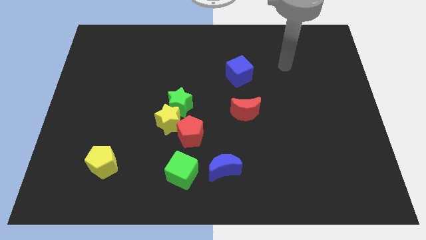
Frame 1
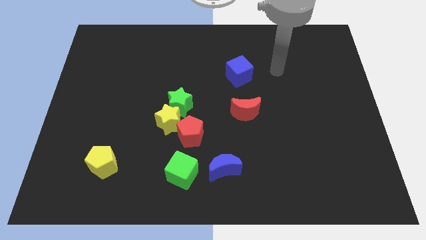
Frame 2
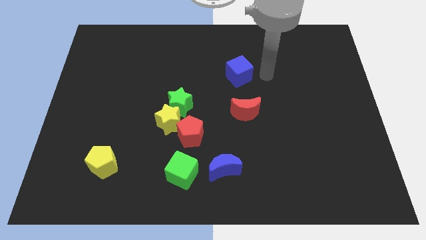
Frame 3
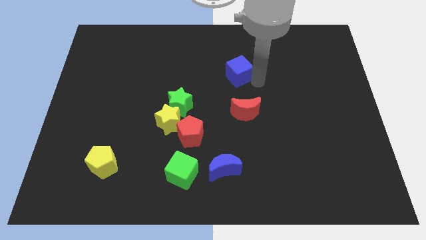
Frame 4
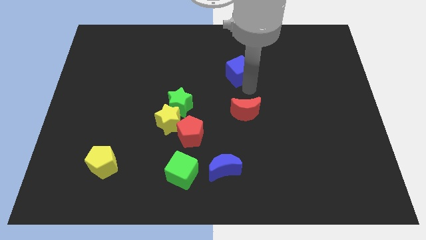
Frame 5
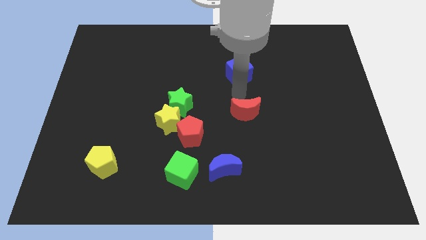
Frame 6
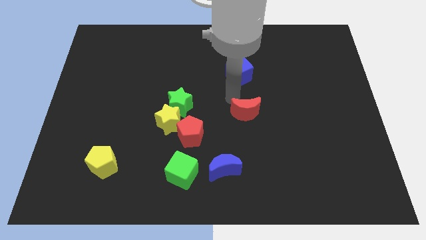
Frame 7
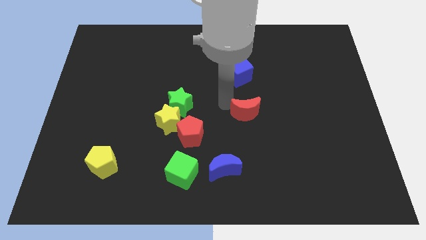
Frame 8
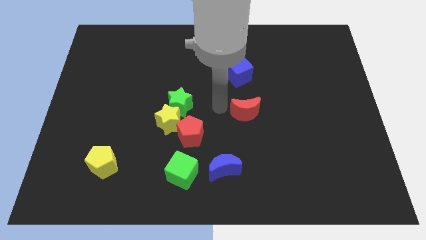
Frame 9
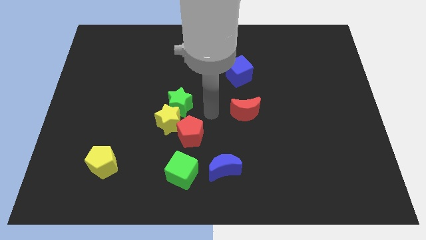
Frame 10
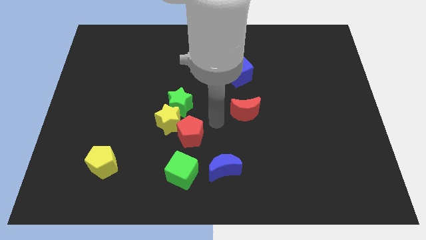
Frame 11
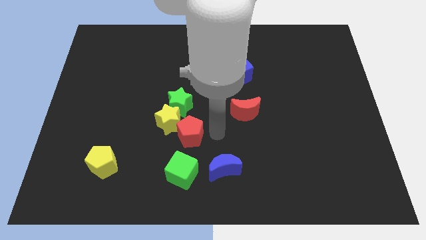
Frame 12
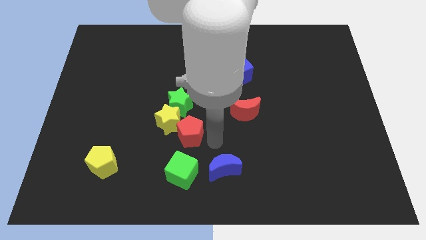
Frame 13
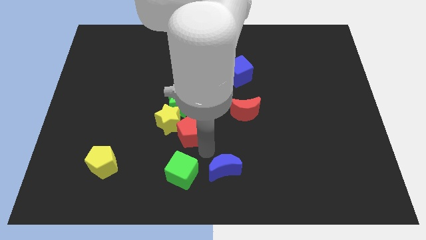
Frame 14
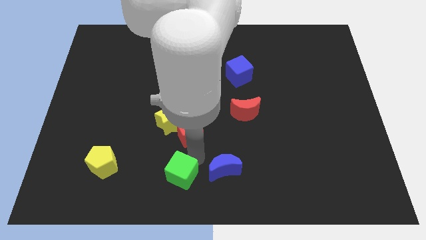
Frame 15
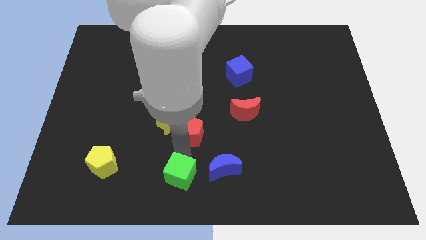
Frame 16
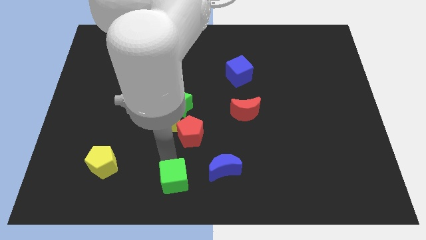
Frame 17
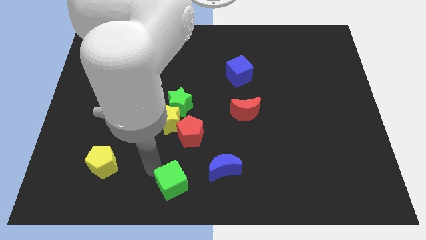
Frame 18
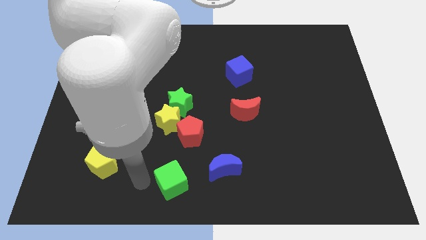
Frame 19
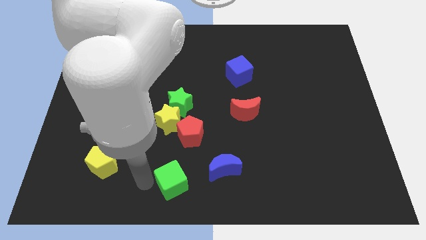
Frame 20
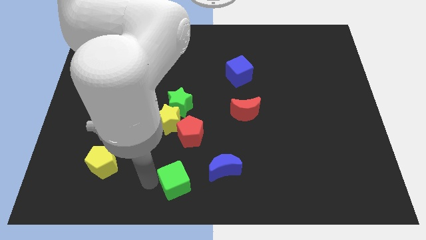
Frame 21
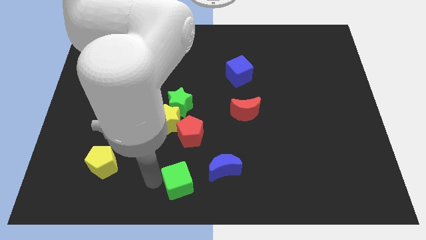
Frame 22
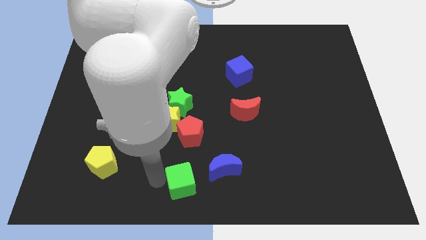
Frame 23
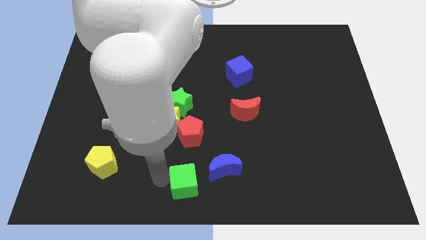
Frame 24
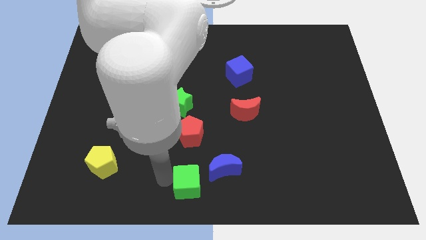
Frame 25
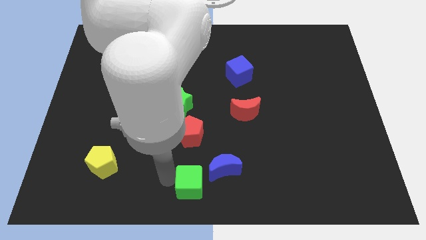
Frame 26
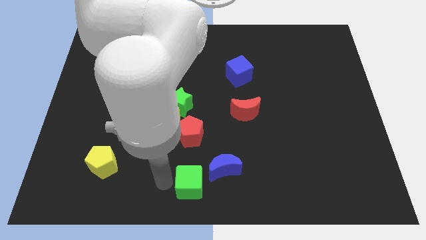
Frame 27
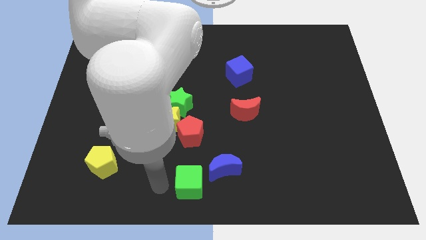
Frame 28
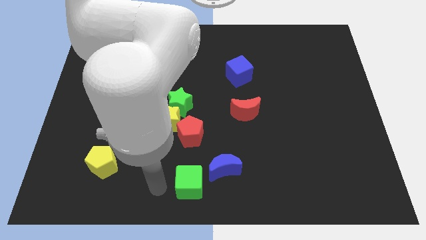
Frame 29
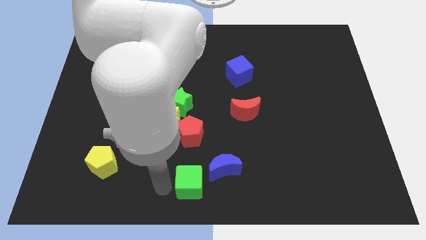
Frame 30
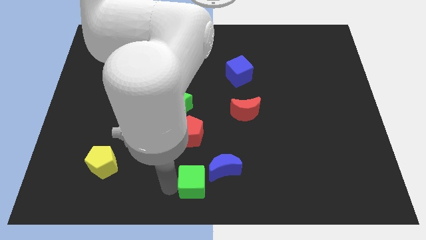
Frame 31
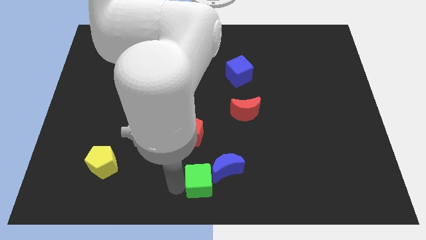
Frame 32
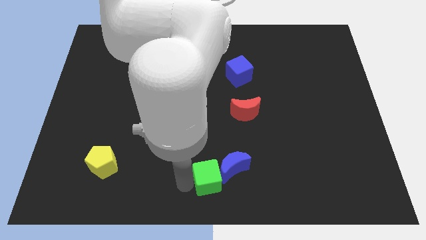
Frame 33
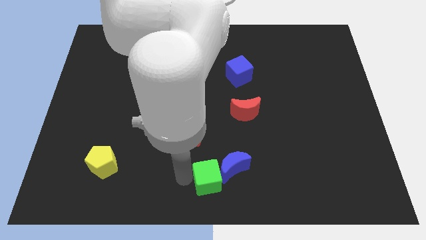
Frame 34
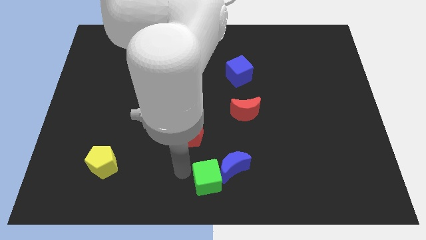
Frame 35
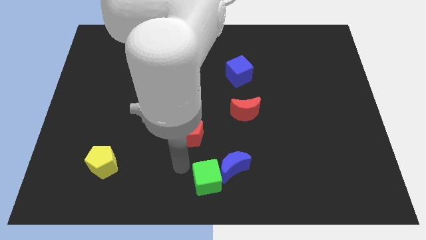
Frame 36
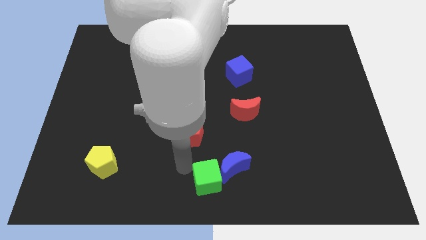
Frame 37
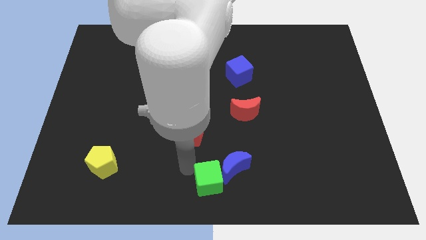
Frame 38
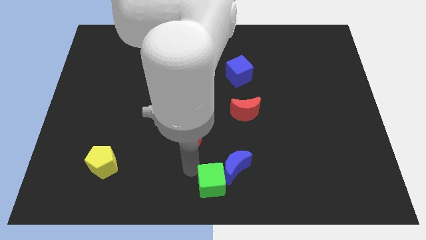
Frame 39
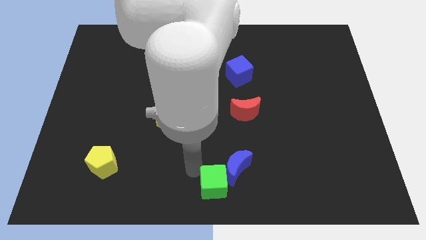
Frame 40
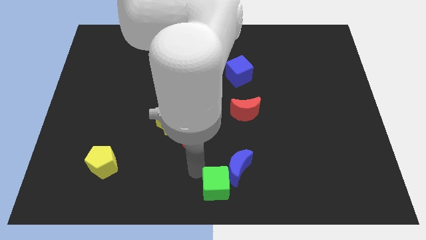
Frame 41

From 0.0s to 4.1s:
move the green cube a little right

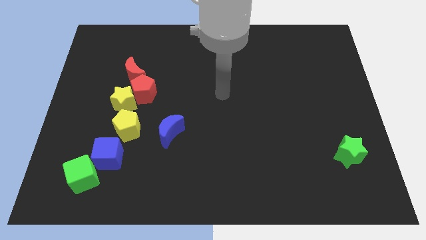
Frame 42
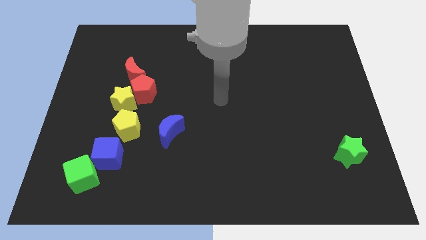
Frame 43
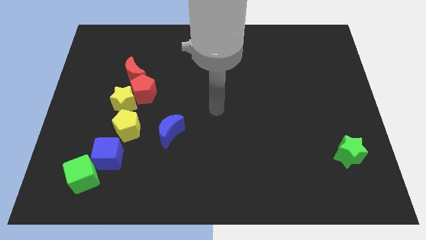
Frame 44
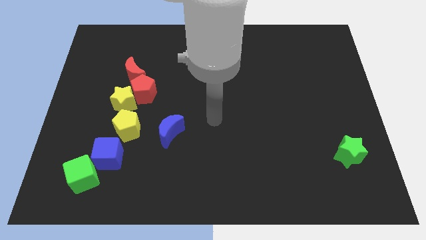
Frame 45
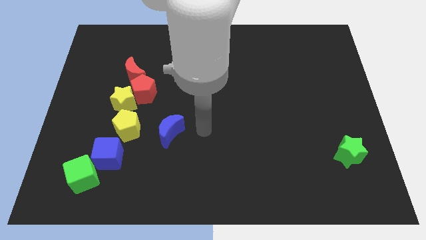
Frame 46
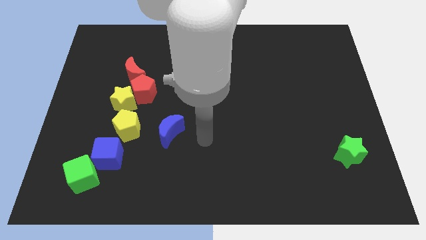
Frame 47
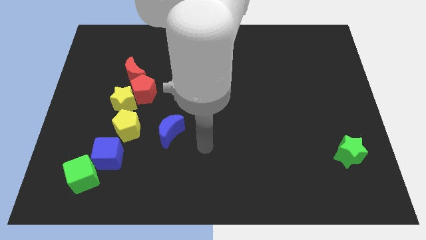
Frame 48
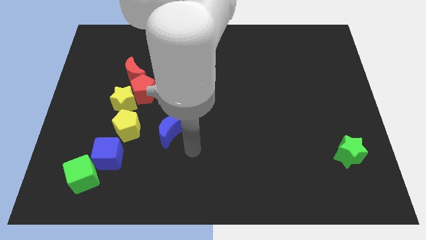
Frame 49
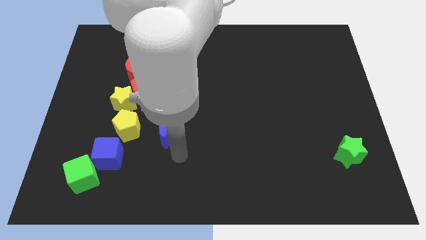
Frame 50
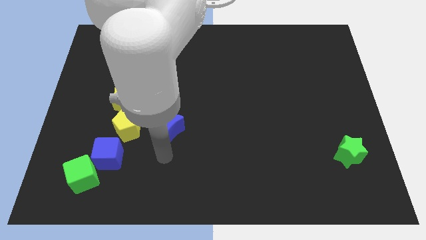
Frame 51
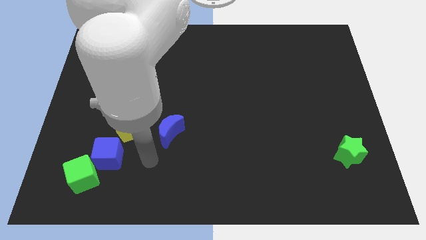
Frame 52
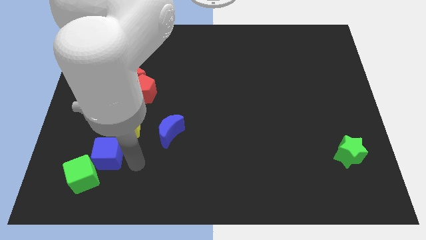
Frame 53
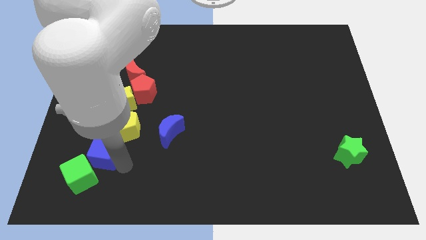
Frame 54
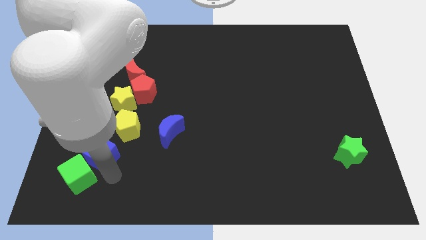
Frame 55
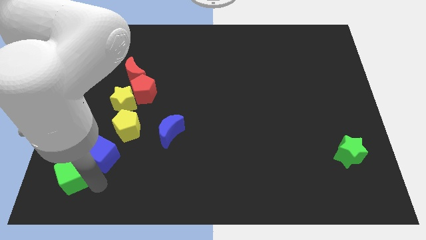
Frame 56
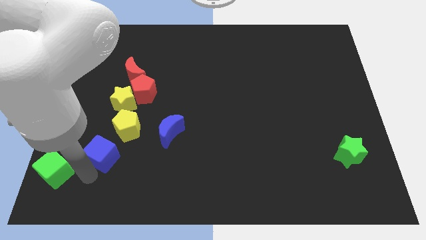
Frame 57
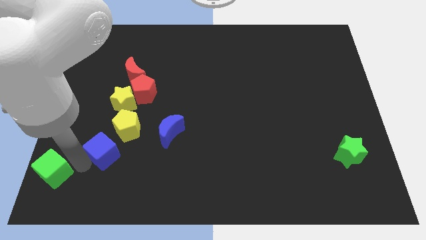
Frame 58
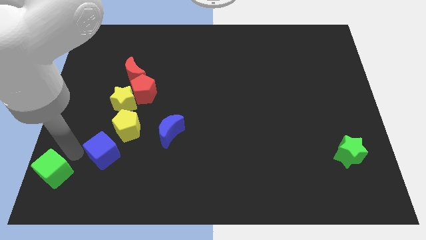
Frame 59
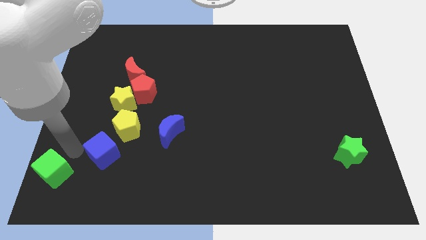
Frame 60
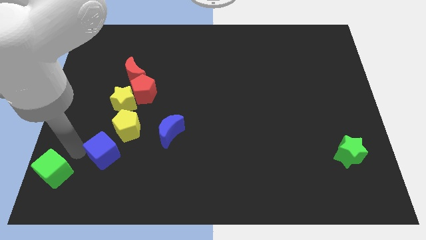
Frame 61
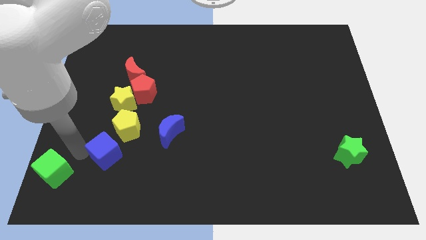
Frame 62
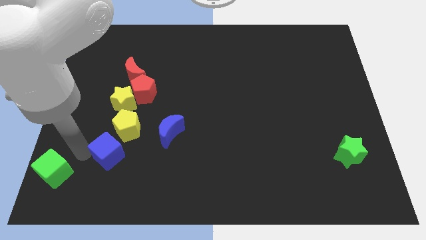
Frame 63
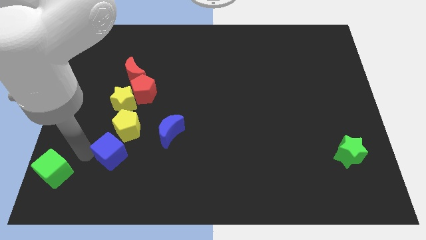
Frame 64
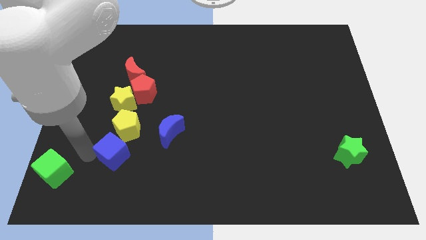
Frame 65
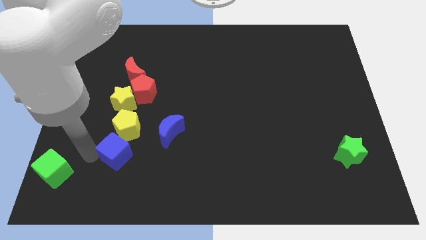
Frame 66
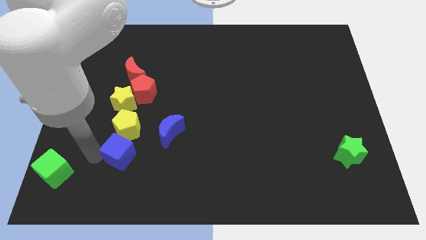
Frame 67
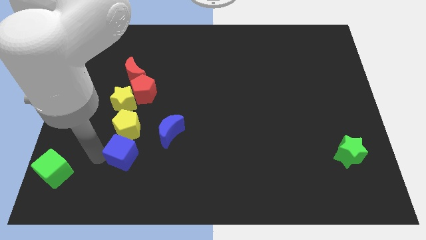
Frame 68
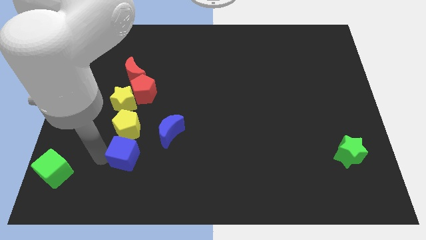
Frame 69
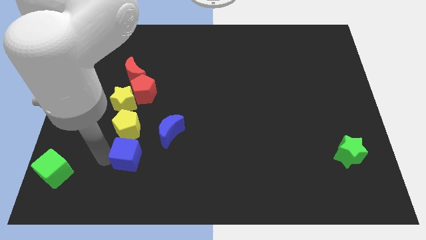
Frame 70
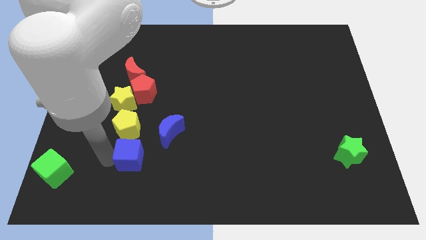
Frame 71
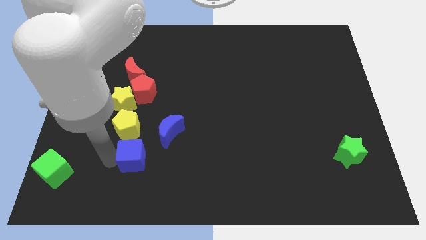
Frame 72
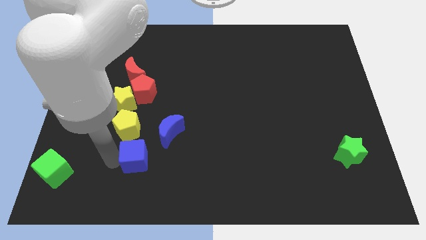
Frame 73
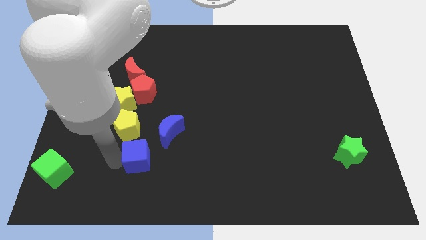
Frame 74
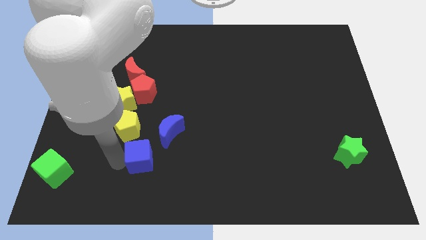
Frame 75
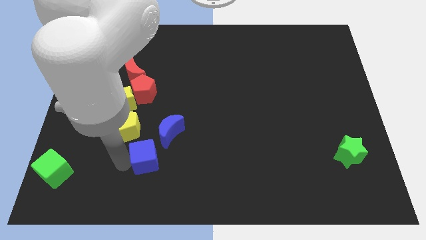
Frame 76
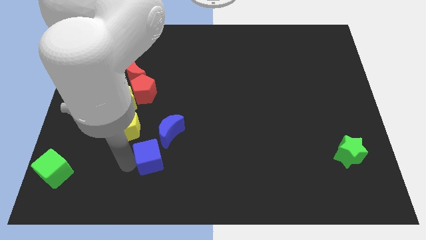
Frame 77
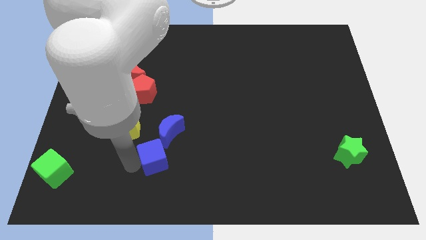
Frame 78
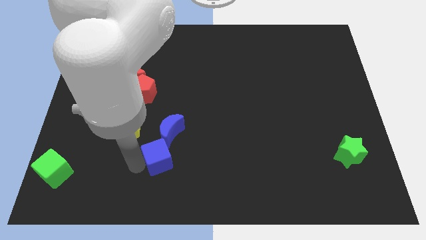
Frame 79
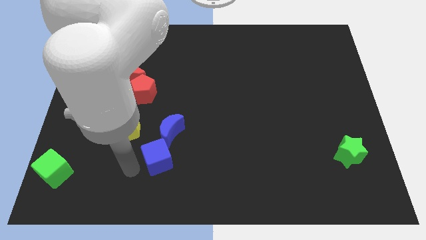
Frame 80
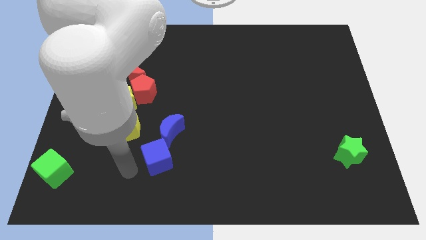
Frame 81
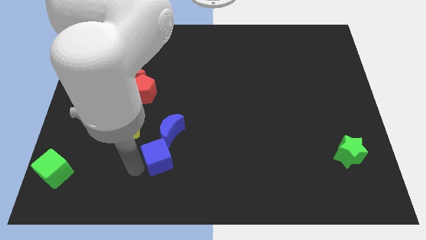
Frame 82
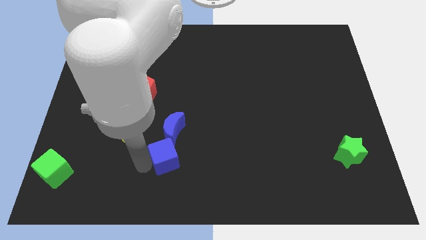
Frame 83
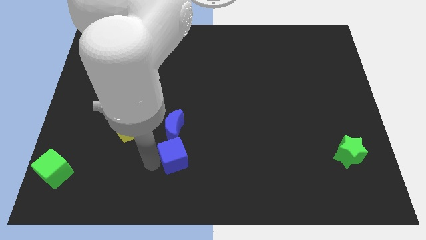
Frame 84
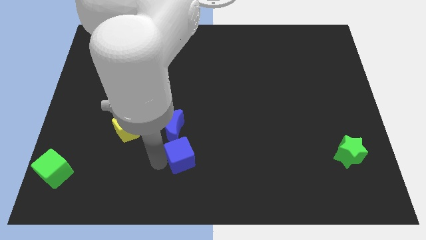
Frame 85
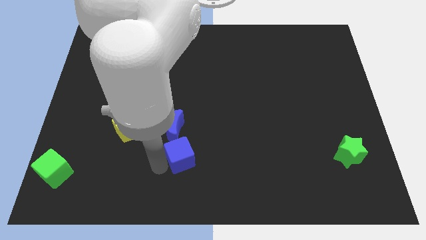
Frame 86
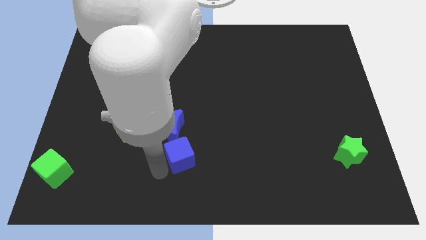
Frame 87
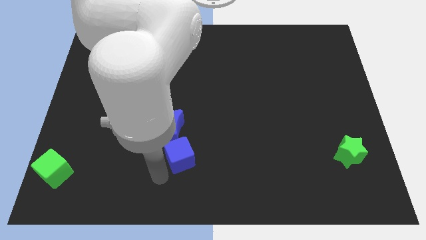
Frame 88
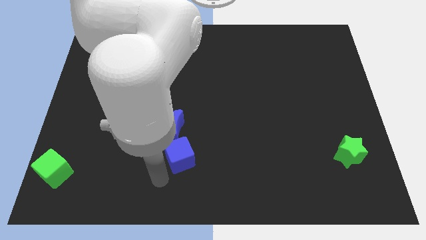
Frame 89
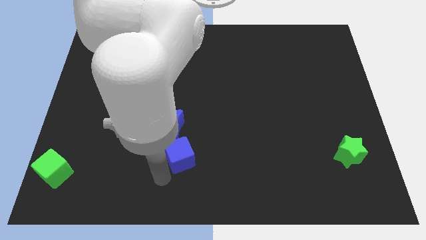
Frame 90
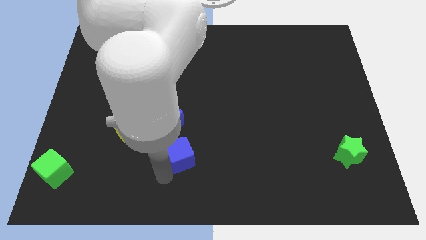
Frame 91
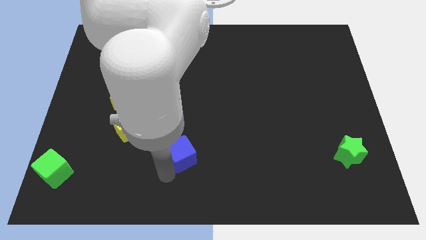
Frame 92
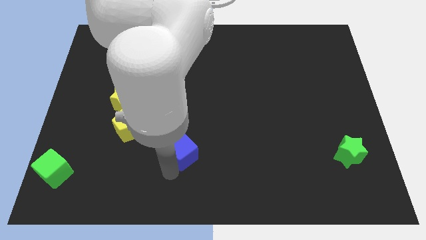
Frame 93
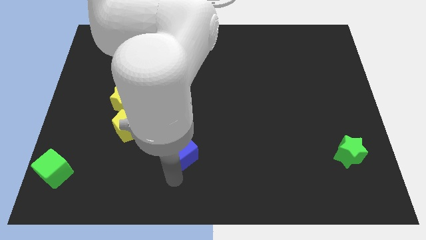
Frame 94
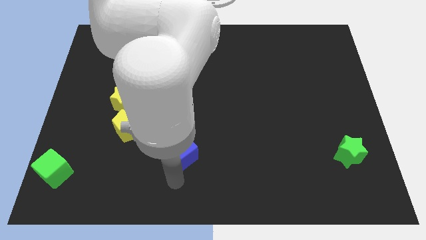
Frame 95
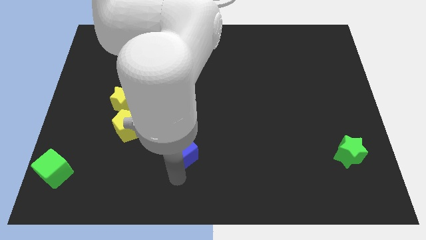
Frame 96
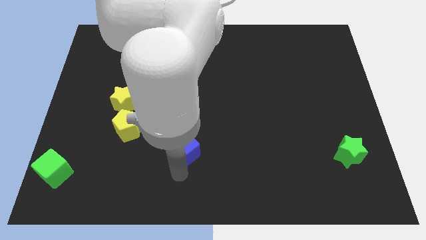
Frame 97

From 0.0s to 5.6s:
slightly push the blue cube up and to the right diagonally
